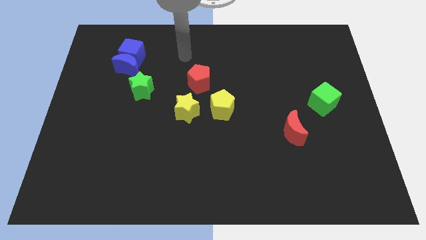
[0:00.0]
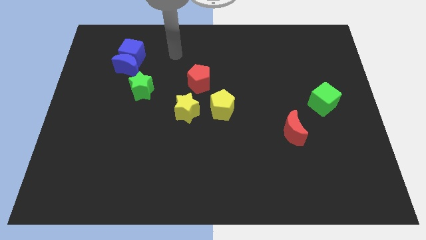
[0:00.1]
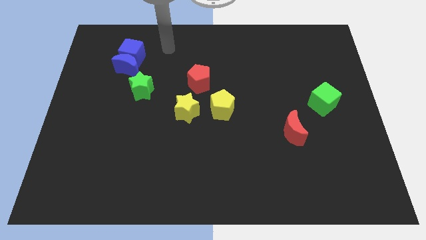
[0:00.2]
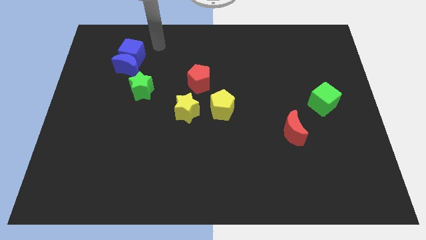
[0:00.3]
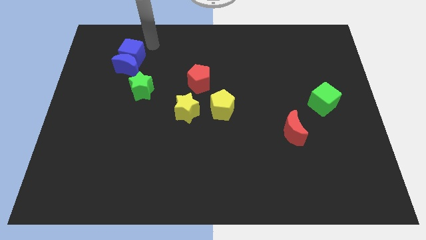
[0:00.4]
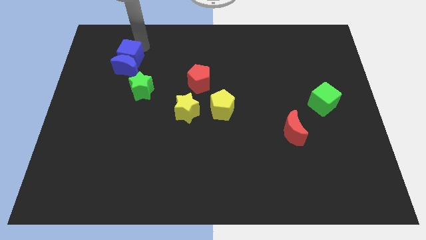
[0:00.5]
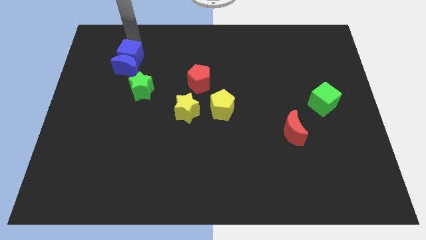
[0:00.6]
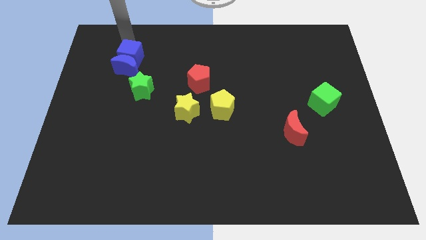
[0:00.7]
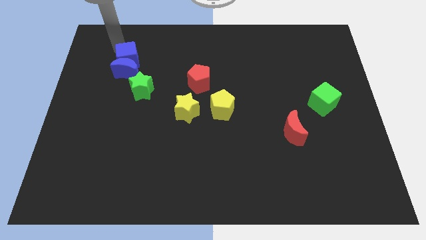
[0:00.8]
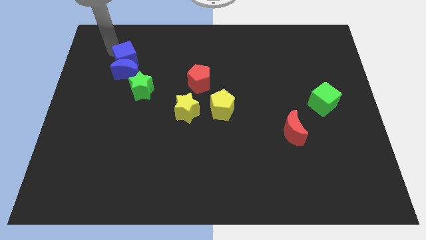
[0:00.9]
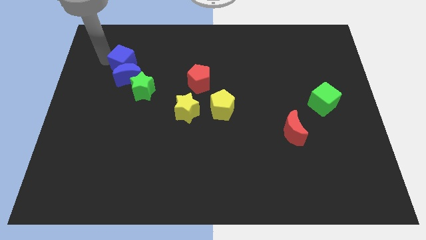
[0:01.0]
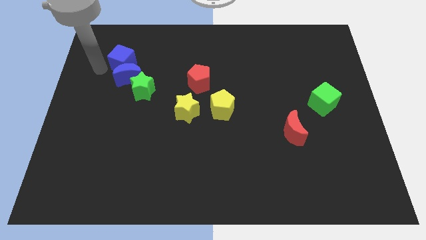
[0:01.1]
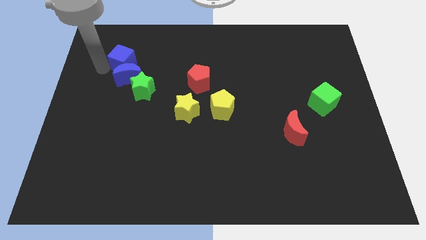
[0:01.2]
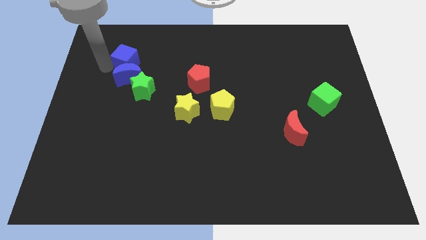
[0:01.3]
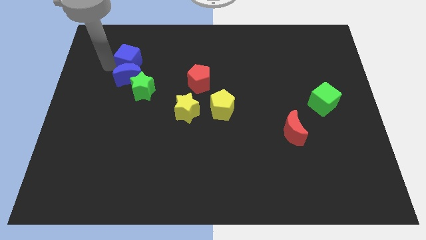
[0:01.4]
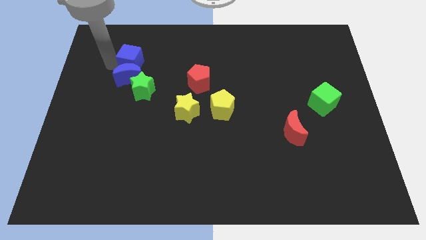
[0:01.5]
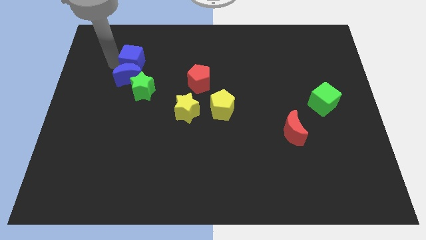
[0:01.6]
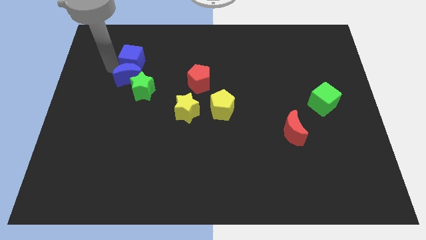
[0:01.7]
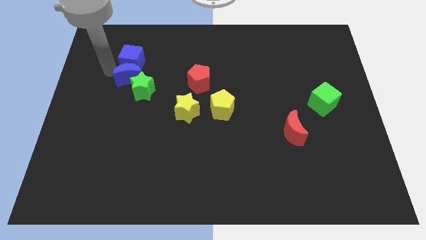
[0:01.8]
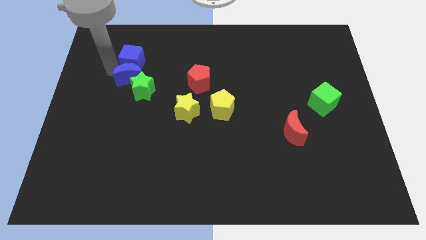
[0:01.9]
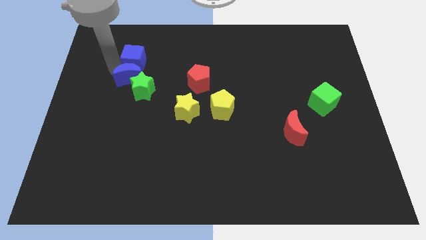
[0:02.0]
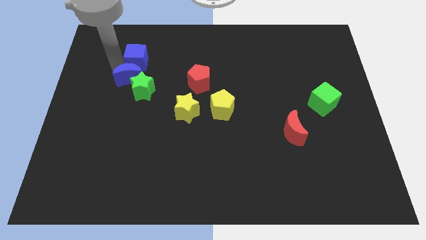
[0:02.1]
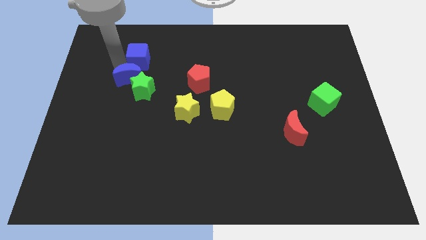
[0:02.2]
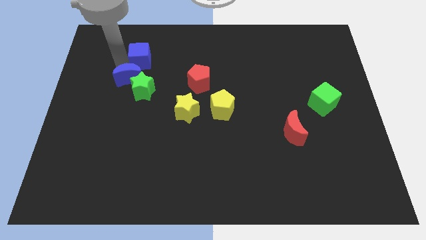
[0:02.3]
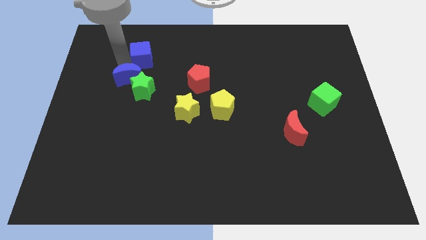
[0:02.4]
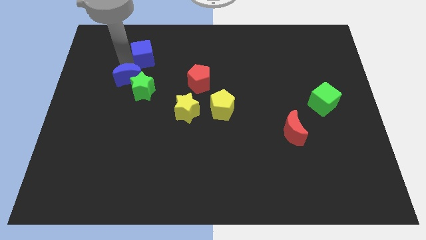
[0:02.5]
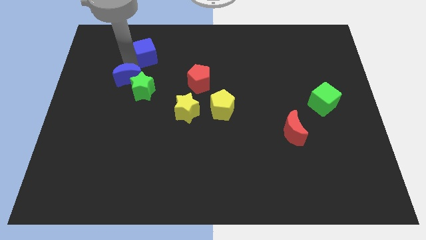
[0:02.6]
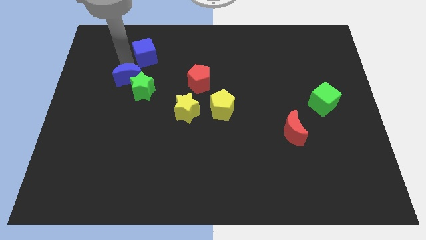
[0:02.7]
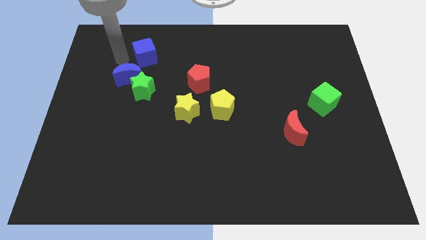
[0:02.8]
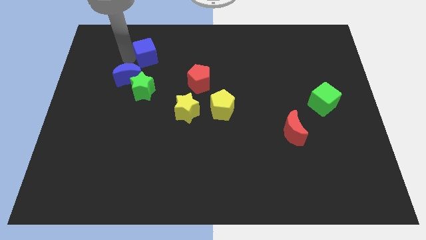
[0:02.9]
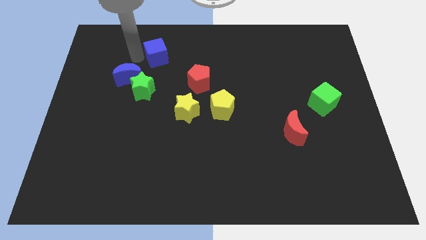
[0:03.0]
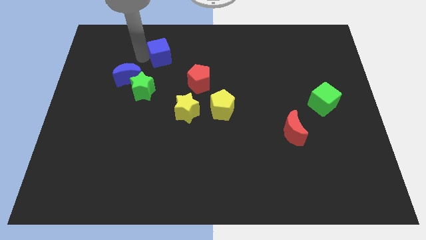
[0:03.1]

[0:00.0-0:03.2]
slightly slide the blue cube right

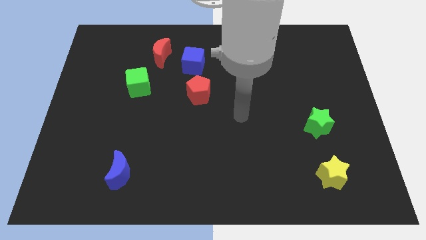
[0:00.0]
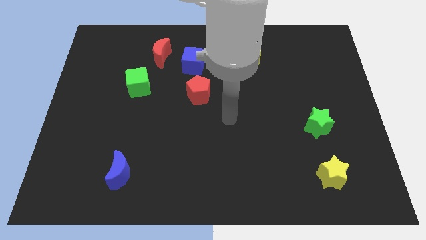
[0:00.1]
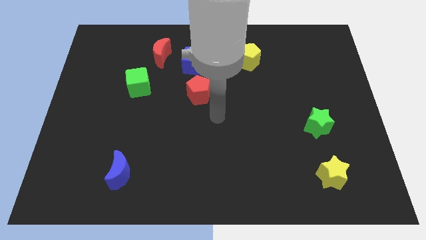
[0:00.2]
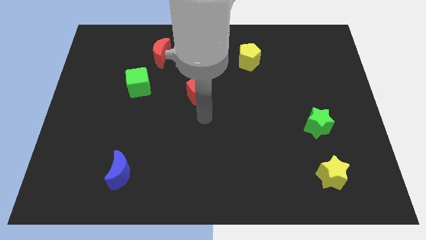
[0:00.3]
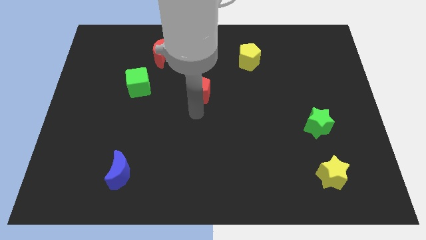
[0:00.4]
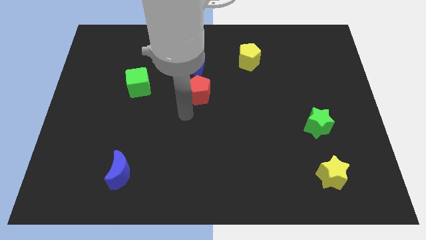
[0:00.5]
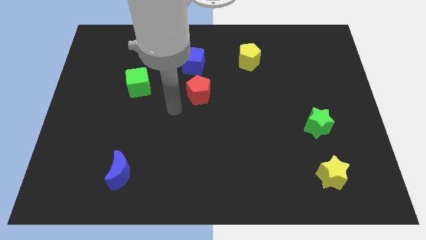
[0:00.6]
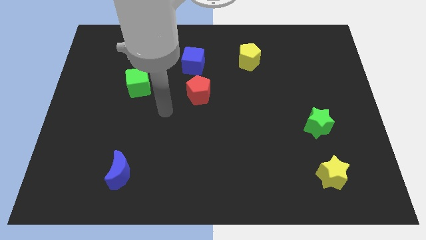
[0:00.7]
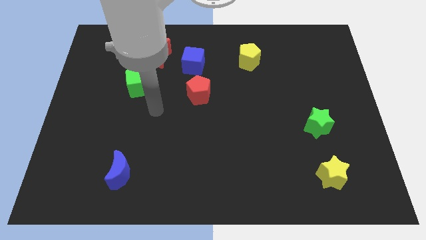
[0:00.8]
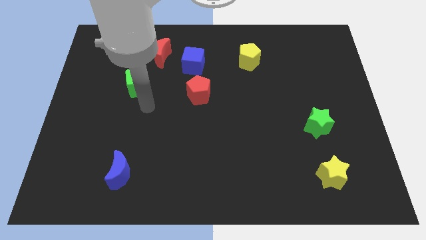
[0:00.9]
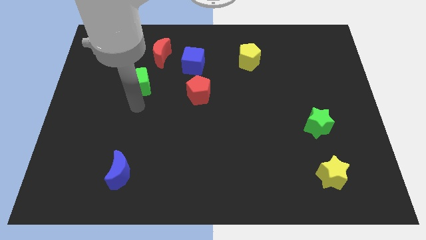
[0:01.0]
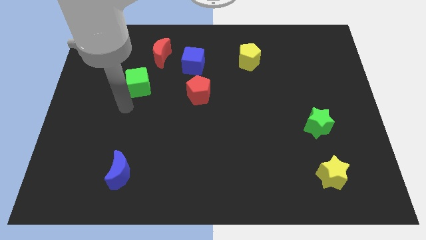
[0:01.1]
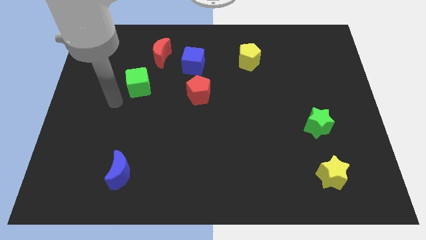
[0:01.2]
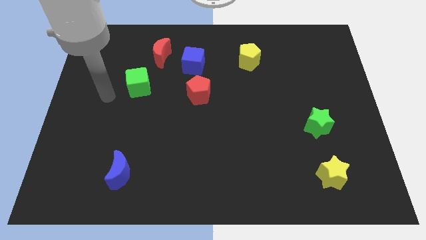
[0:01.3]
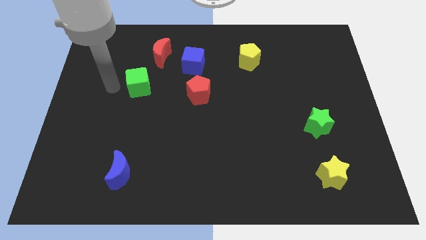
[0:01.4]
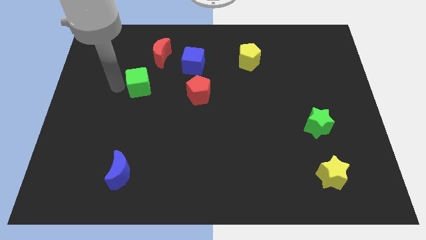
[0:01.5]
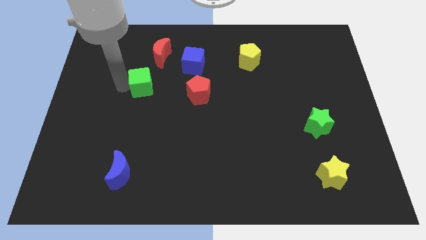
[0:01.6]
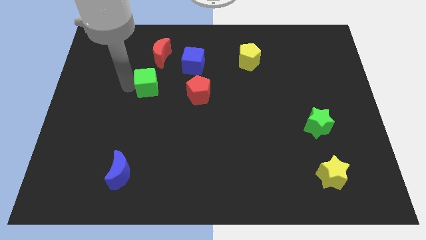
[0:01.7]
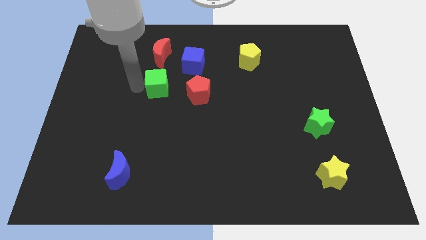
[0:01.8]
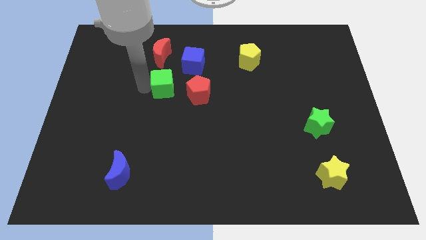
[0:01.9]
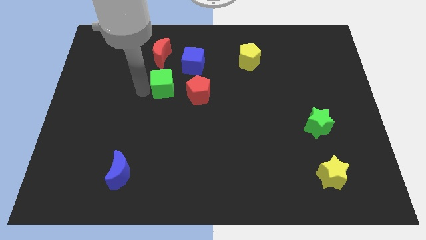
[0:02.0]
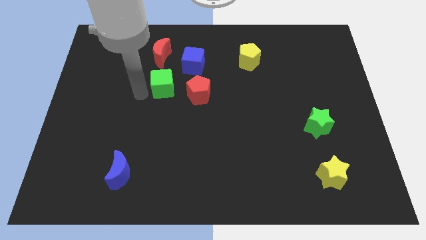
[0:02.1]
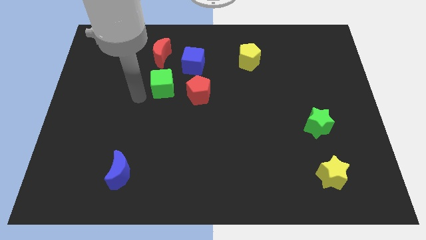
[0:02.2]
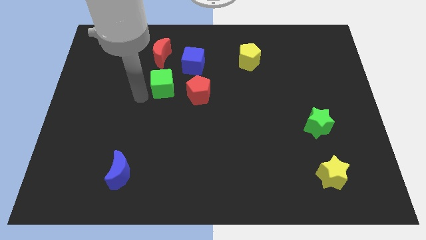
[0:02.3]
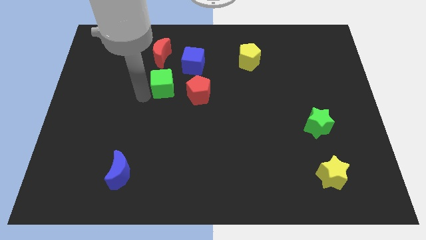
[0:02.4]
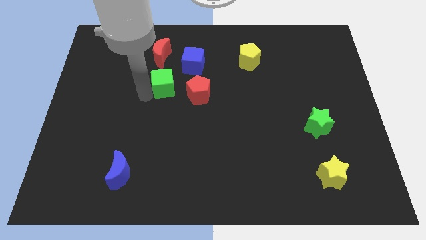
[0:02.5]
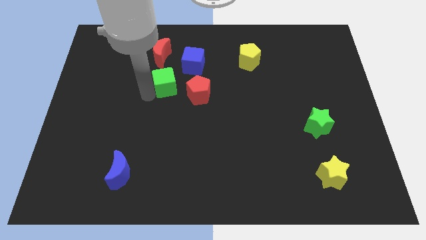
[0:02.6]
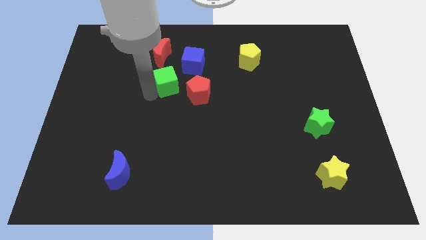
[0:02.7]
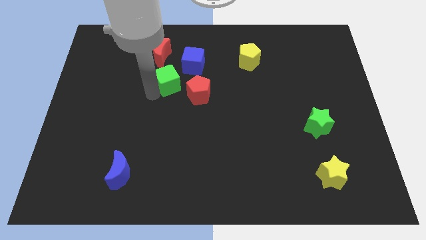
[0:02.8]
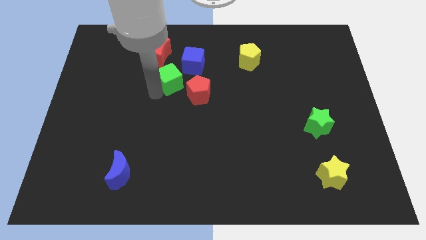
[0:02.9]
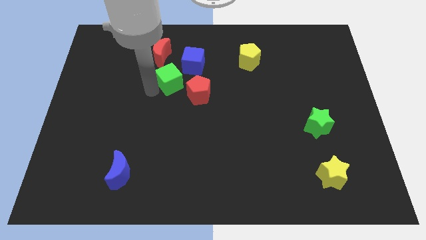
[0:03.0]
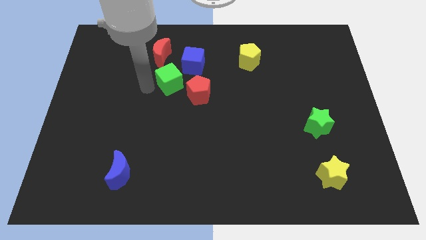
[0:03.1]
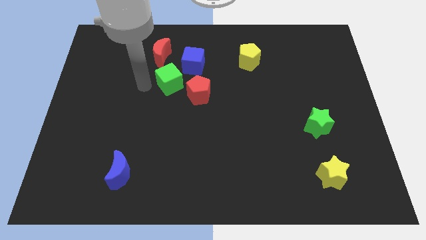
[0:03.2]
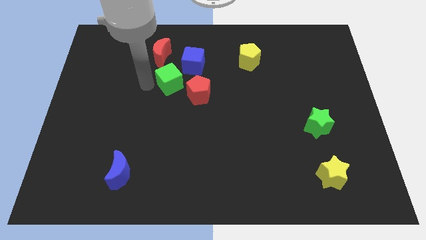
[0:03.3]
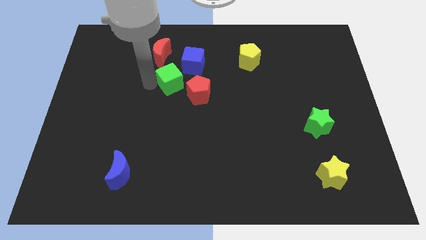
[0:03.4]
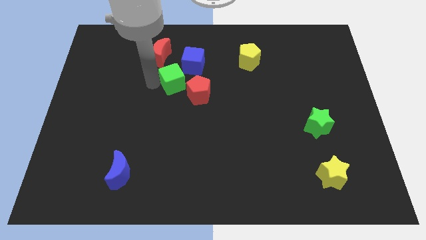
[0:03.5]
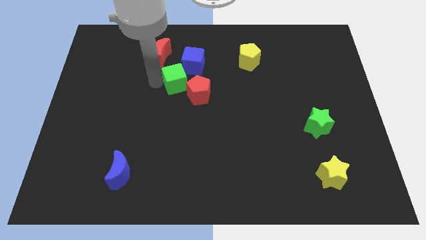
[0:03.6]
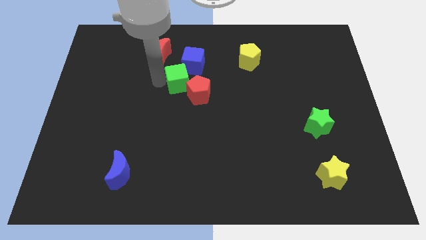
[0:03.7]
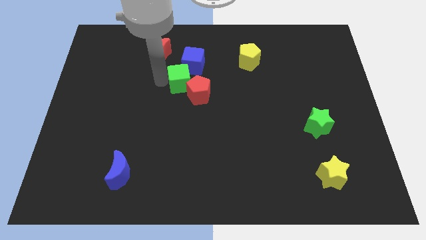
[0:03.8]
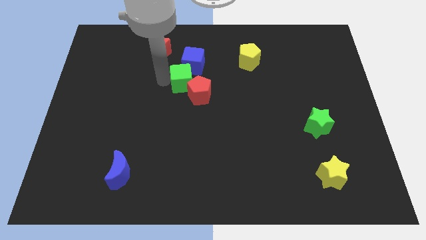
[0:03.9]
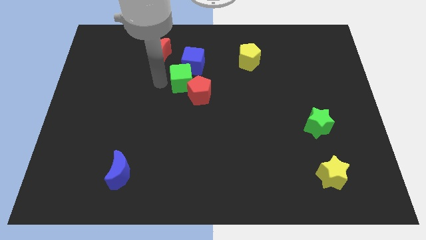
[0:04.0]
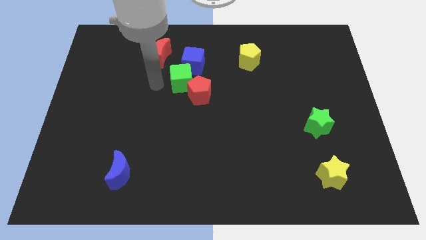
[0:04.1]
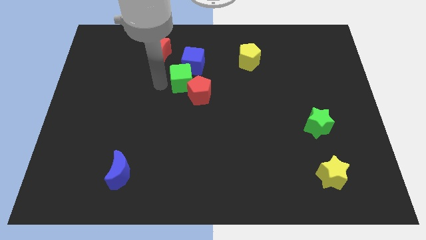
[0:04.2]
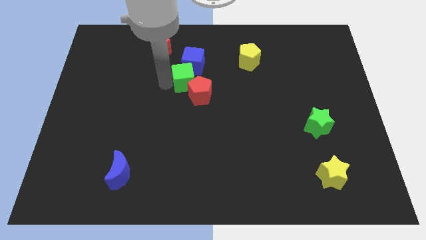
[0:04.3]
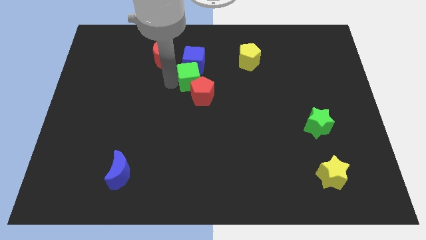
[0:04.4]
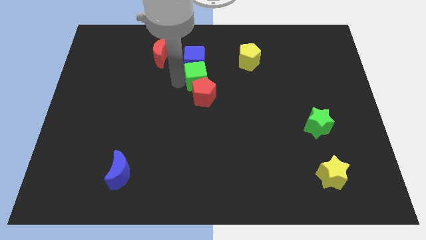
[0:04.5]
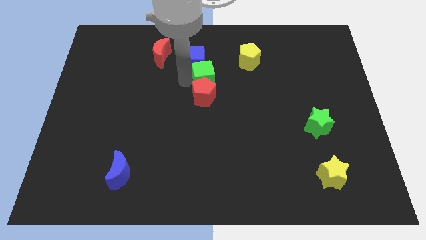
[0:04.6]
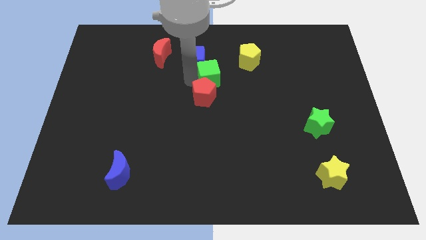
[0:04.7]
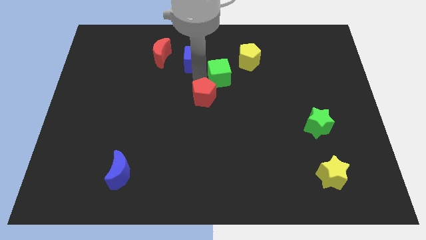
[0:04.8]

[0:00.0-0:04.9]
move the green cube to the right
